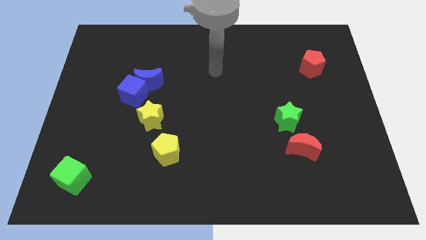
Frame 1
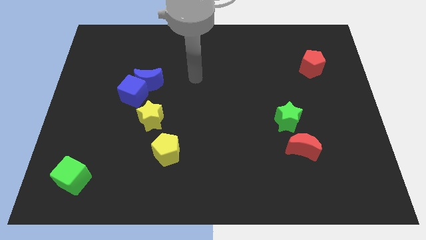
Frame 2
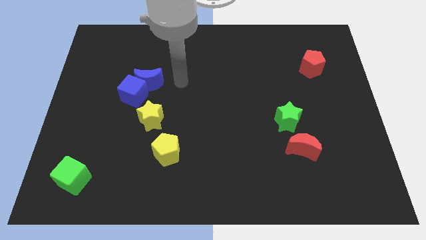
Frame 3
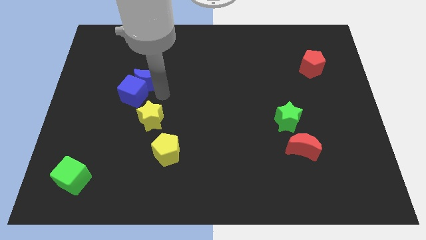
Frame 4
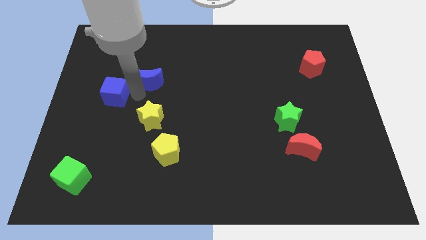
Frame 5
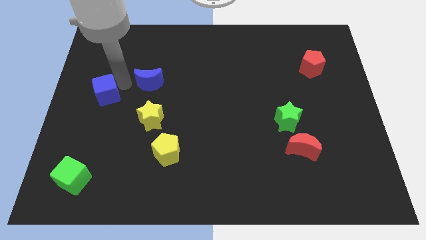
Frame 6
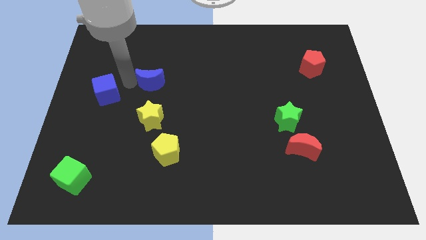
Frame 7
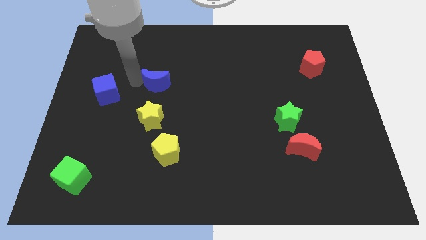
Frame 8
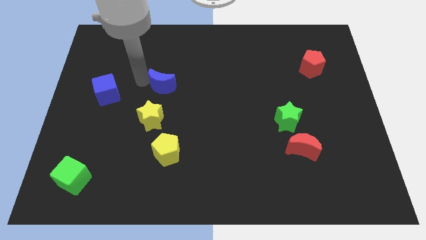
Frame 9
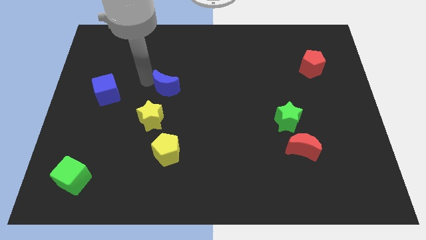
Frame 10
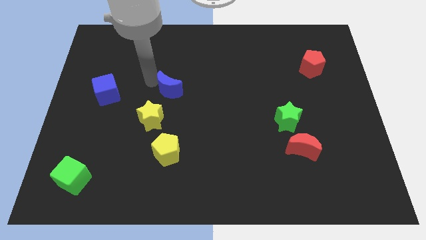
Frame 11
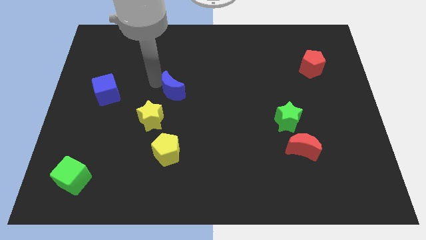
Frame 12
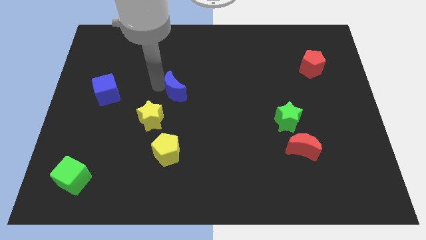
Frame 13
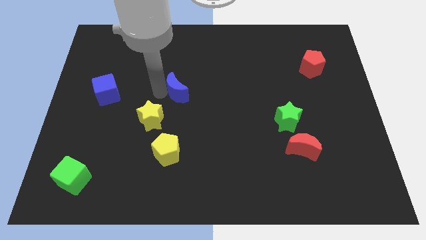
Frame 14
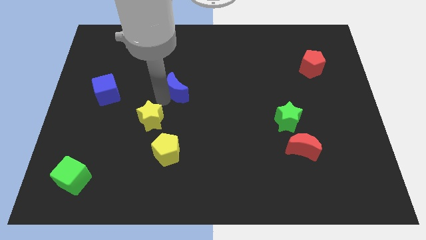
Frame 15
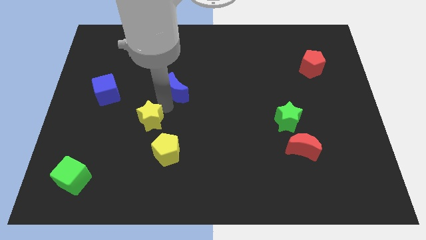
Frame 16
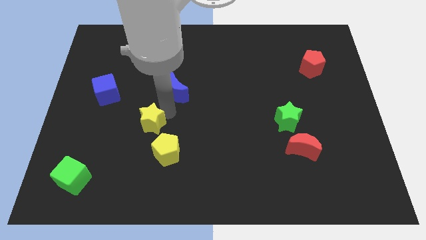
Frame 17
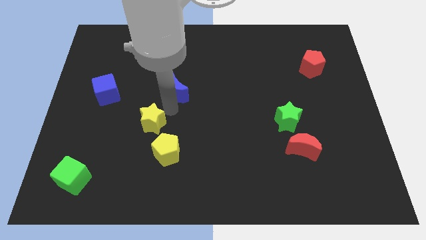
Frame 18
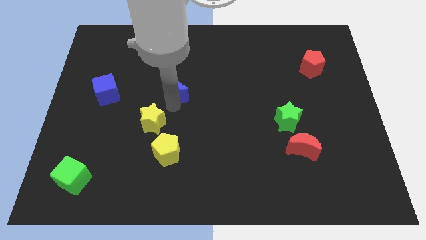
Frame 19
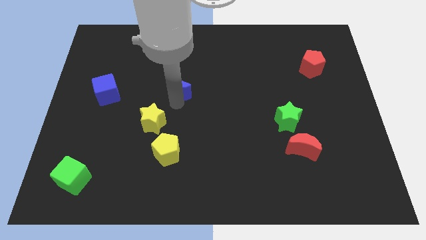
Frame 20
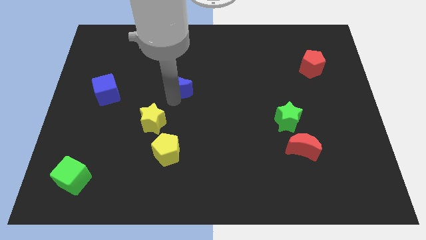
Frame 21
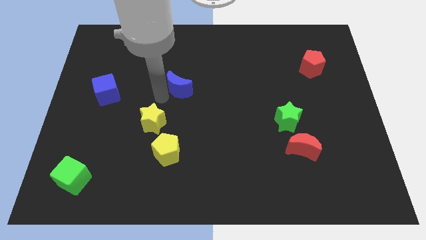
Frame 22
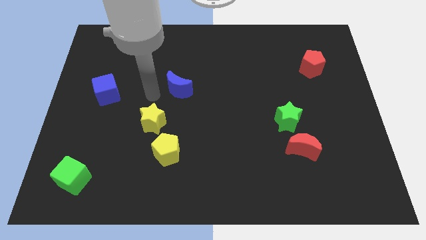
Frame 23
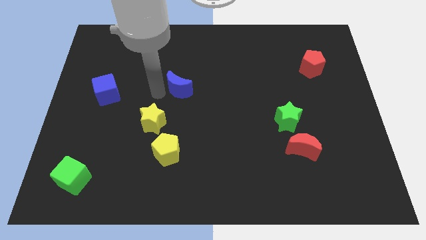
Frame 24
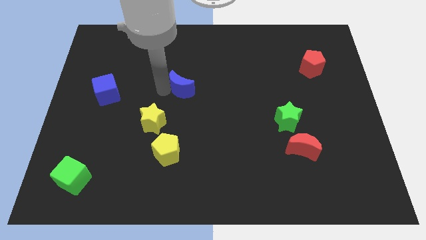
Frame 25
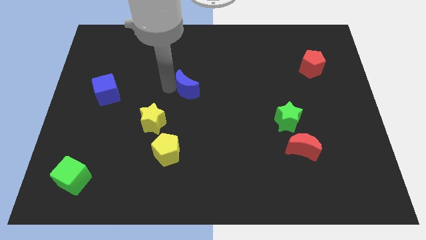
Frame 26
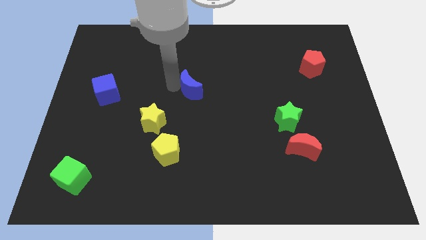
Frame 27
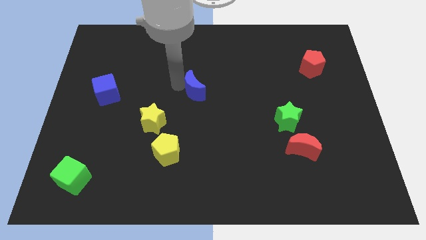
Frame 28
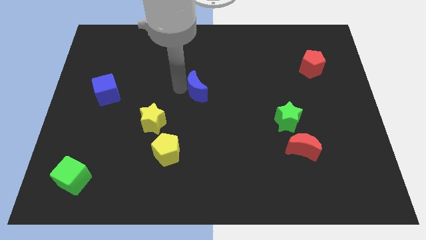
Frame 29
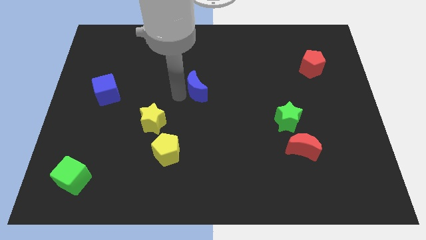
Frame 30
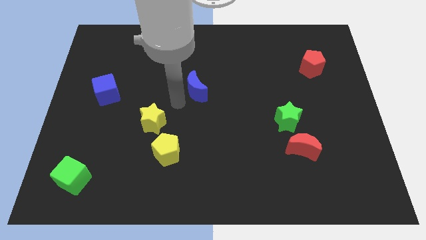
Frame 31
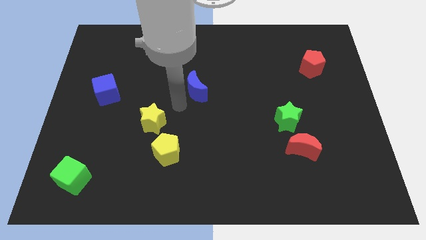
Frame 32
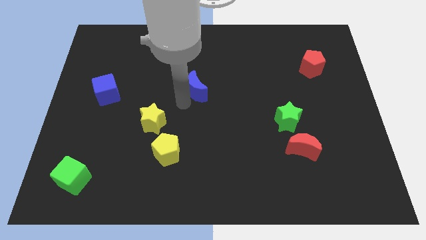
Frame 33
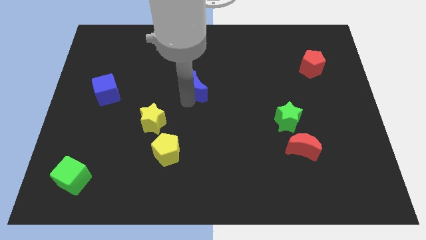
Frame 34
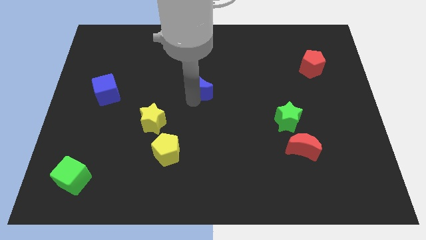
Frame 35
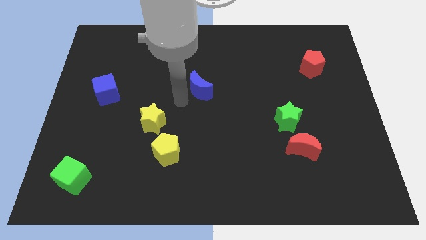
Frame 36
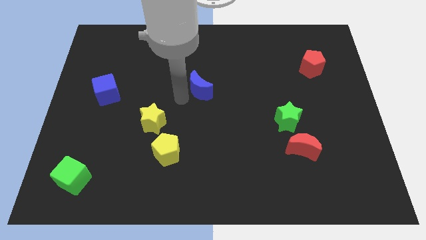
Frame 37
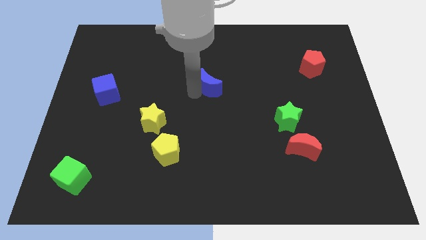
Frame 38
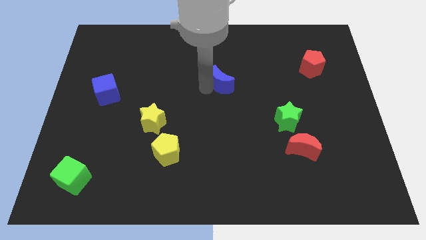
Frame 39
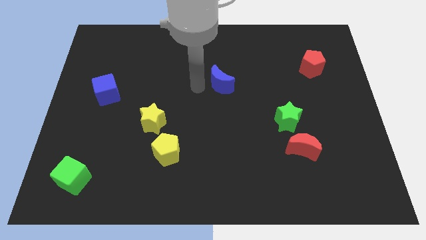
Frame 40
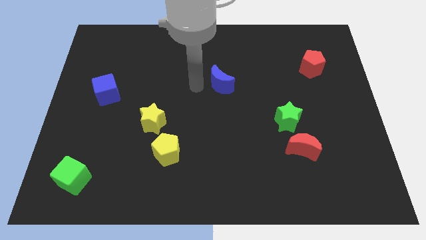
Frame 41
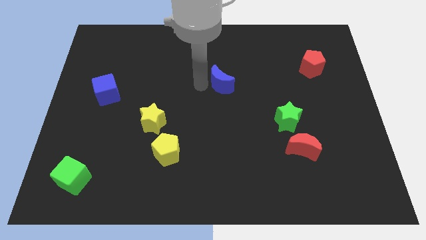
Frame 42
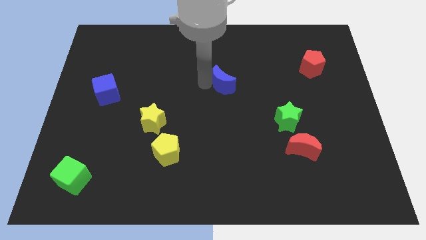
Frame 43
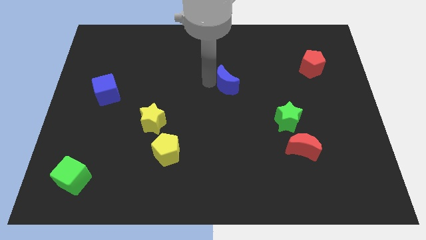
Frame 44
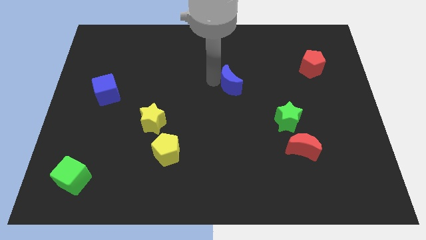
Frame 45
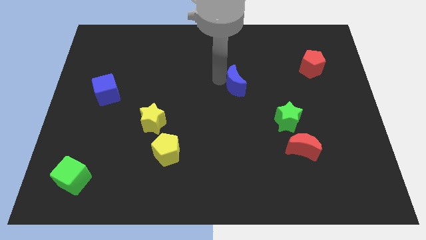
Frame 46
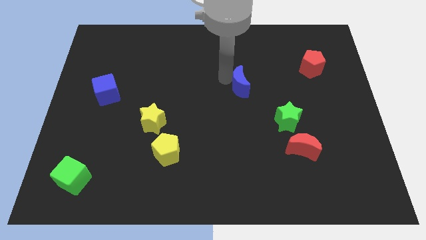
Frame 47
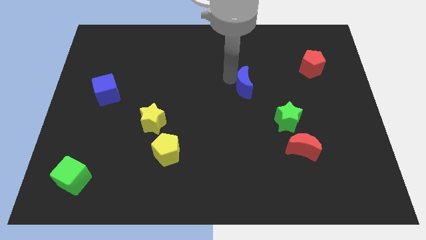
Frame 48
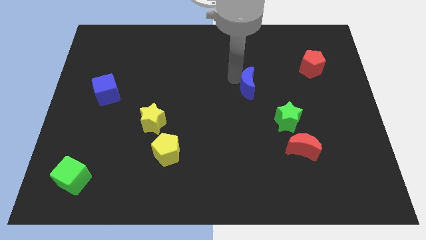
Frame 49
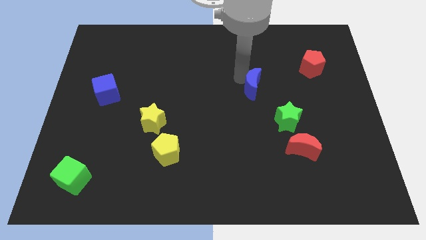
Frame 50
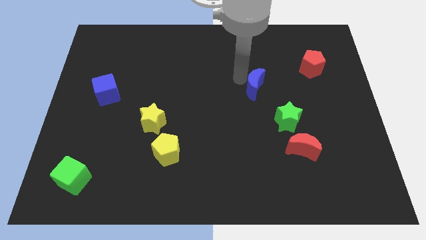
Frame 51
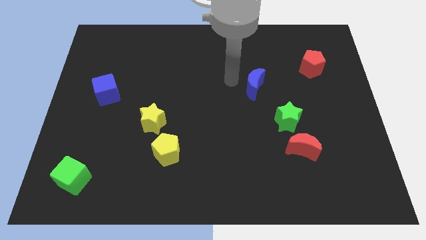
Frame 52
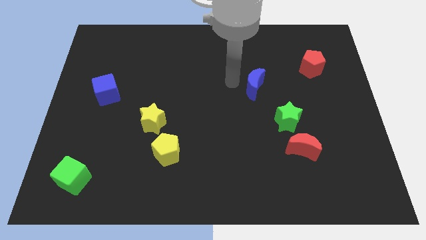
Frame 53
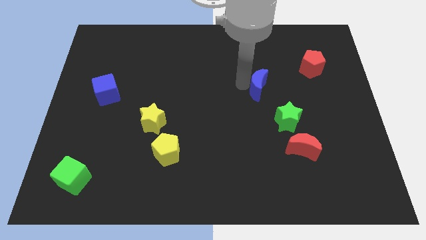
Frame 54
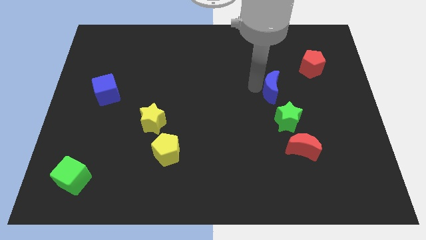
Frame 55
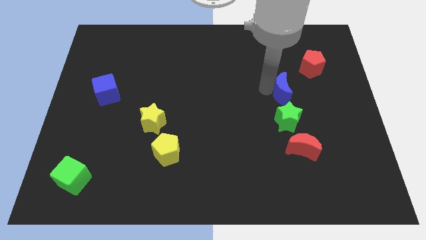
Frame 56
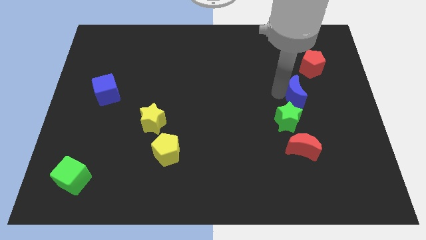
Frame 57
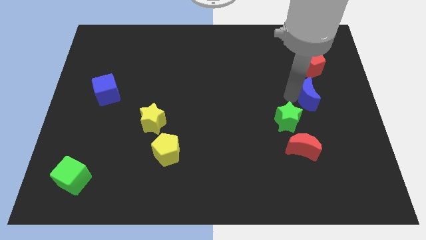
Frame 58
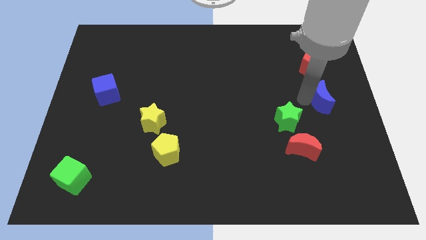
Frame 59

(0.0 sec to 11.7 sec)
push the blue moon to the right side
